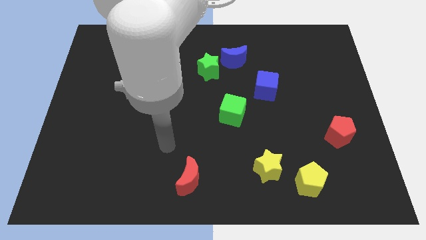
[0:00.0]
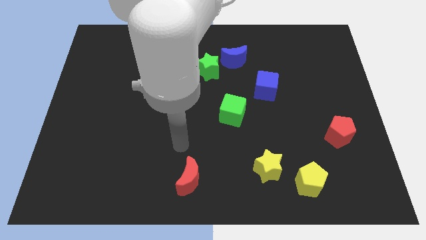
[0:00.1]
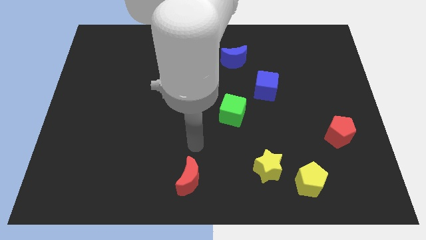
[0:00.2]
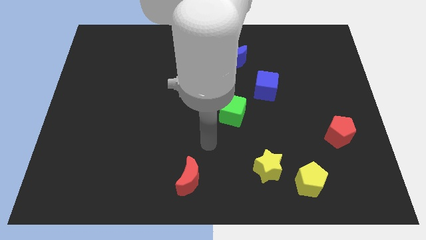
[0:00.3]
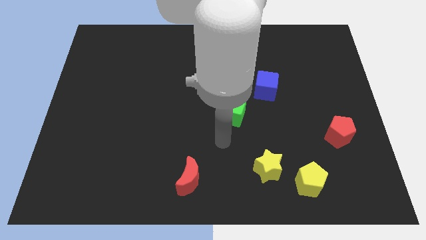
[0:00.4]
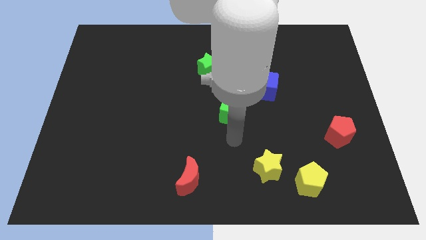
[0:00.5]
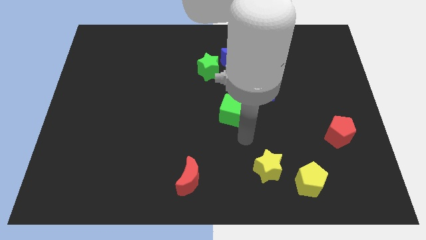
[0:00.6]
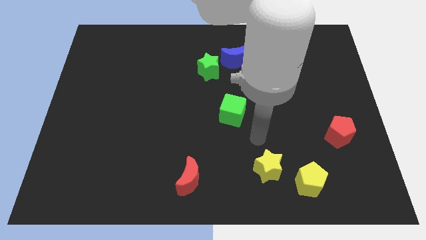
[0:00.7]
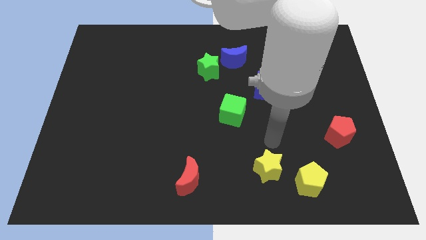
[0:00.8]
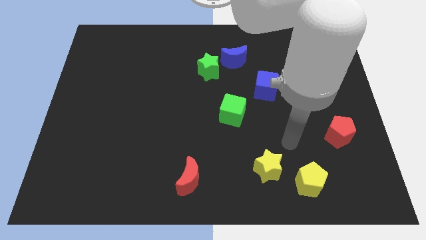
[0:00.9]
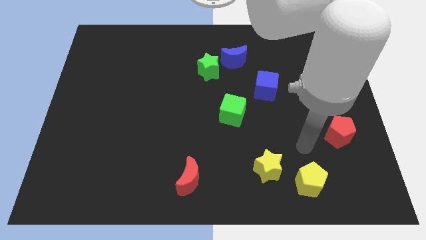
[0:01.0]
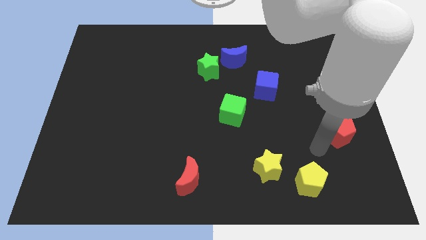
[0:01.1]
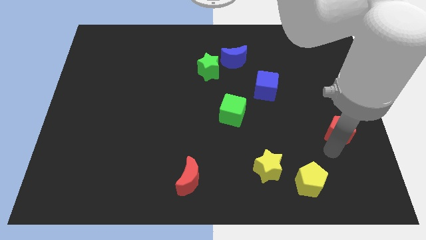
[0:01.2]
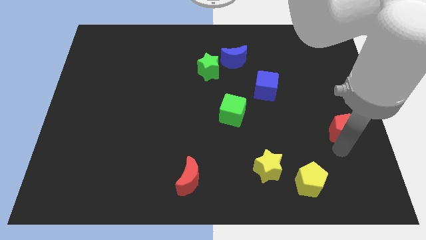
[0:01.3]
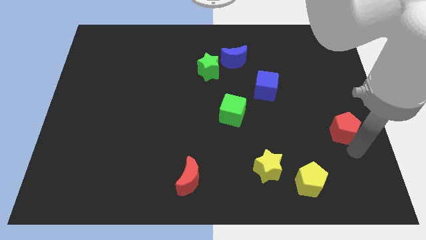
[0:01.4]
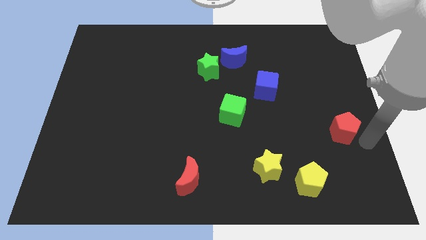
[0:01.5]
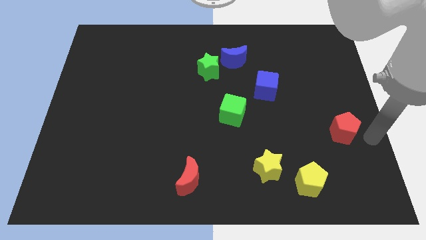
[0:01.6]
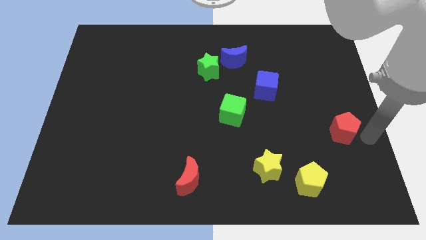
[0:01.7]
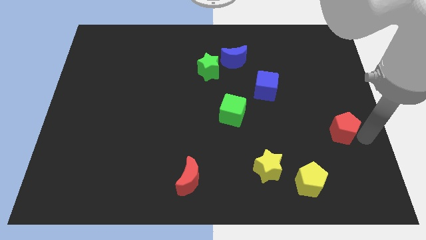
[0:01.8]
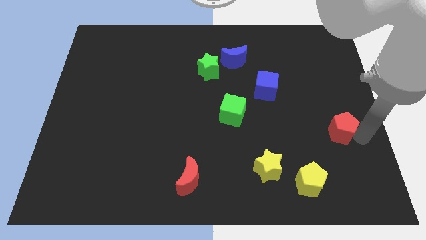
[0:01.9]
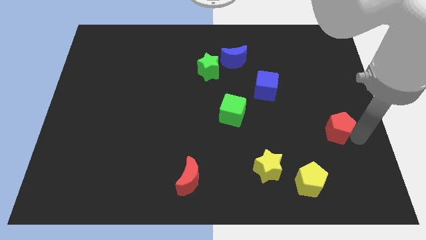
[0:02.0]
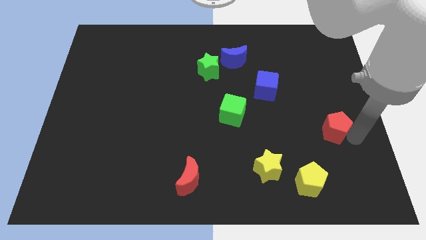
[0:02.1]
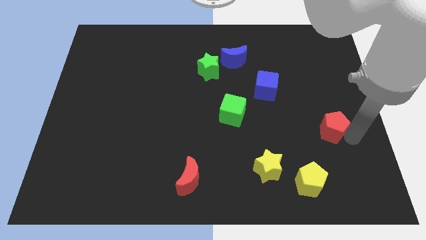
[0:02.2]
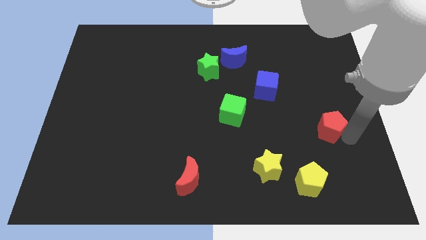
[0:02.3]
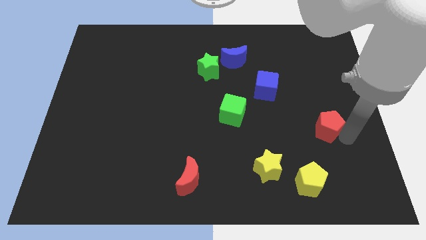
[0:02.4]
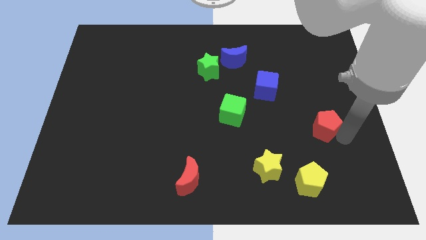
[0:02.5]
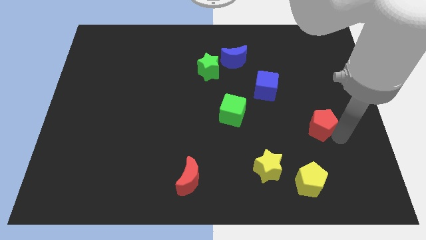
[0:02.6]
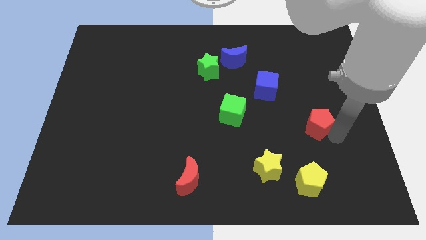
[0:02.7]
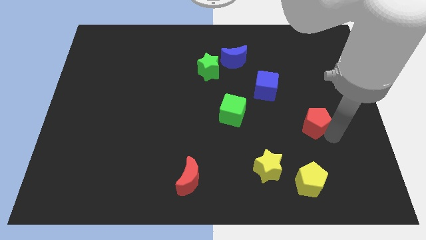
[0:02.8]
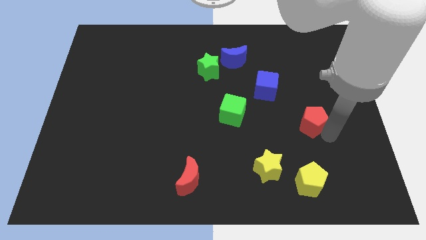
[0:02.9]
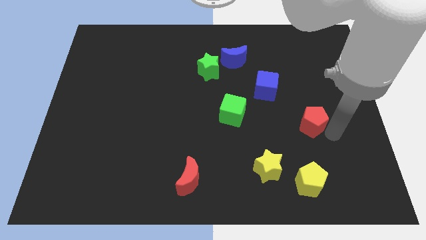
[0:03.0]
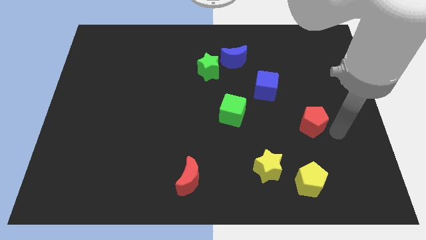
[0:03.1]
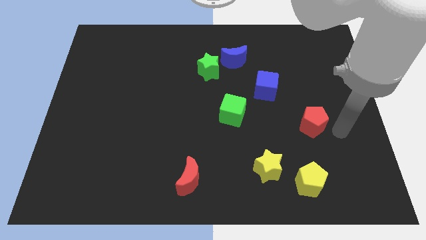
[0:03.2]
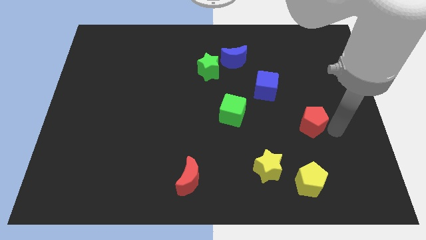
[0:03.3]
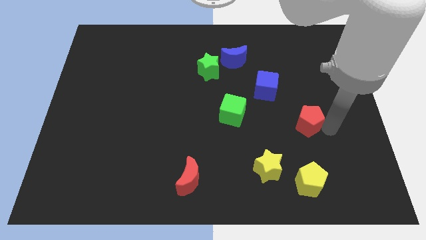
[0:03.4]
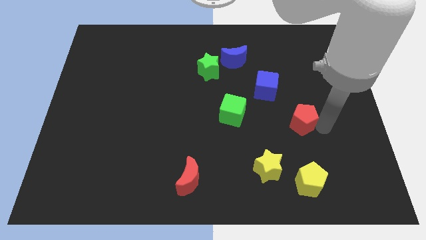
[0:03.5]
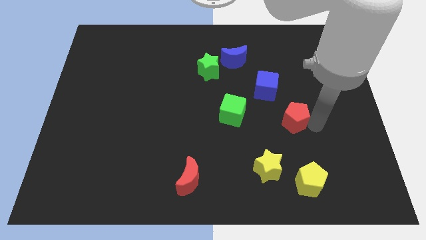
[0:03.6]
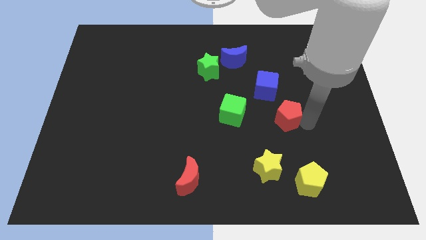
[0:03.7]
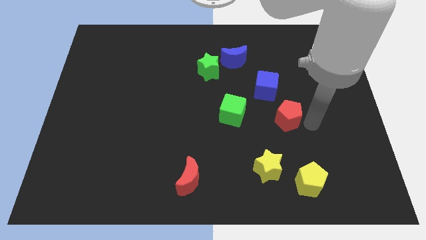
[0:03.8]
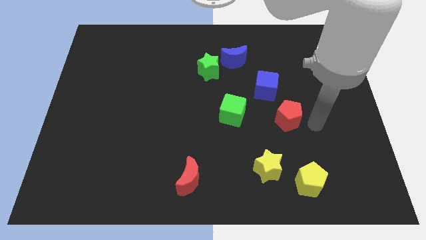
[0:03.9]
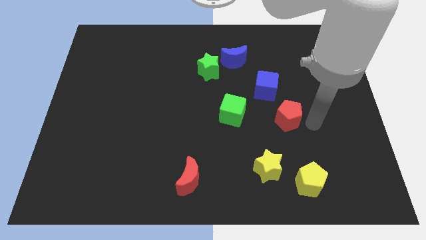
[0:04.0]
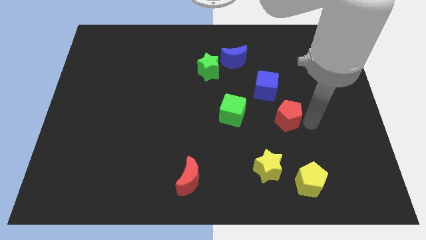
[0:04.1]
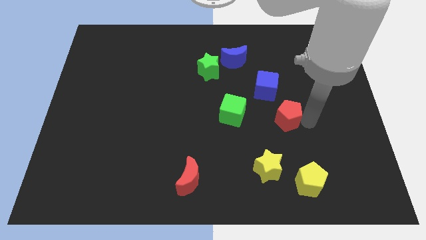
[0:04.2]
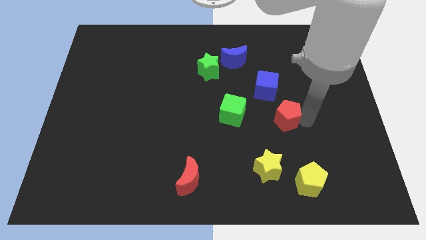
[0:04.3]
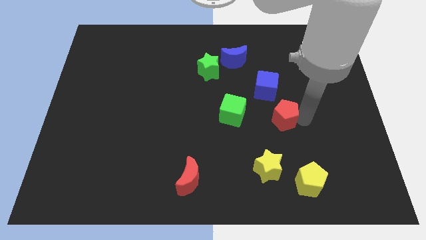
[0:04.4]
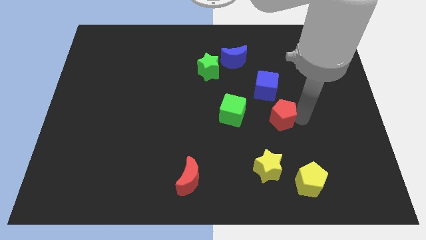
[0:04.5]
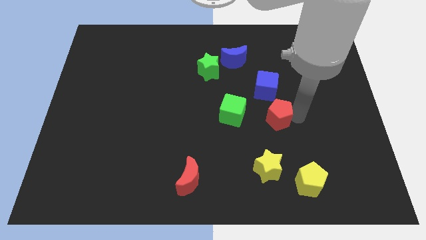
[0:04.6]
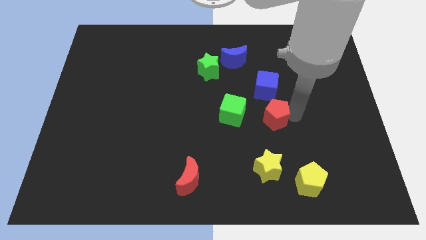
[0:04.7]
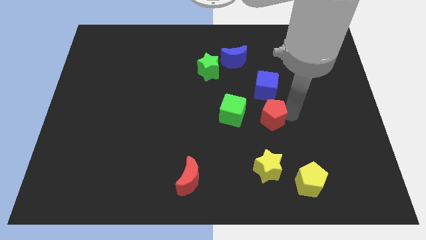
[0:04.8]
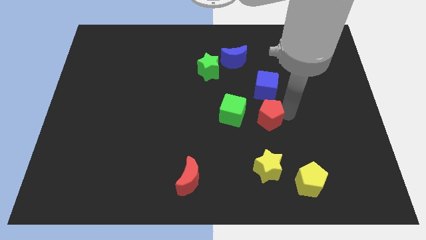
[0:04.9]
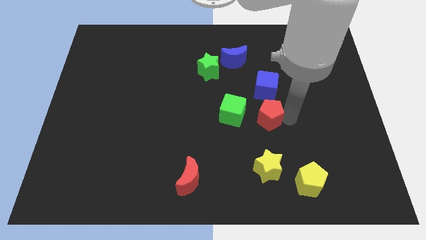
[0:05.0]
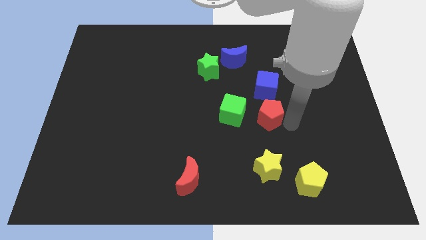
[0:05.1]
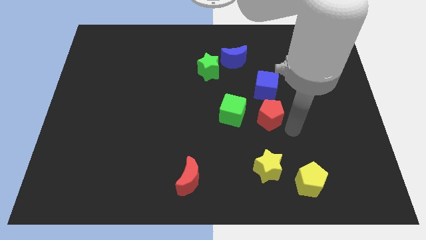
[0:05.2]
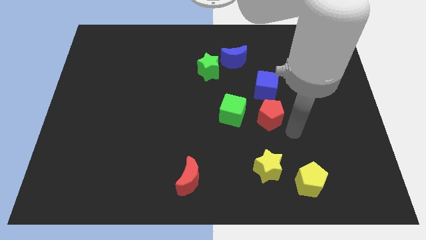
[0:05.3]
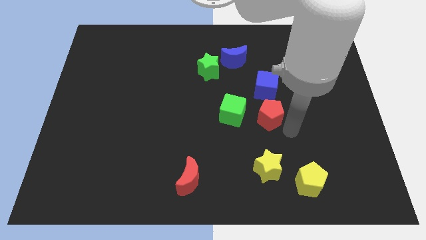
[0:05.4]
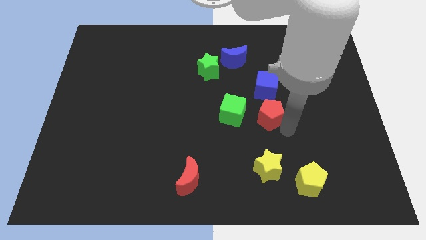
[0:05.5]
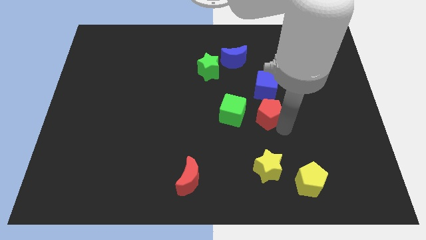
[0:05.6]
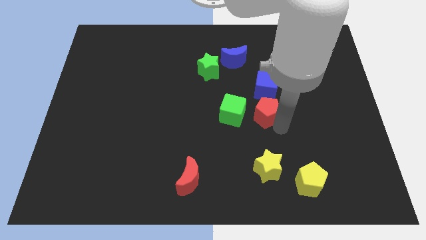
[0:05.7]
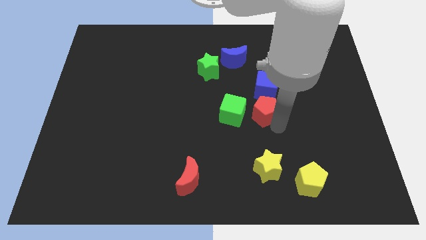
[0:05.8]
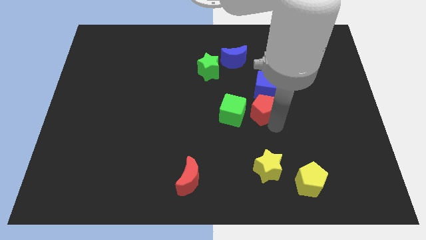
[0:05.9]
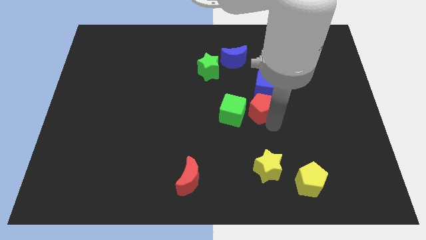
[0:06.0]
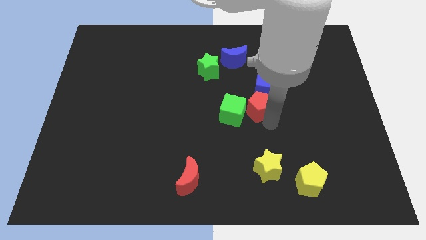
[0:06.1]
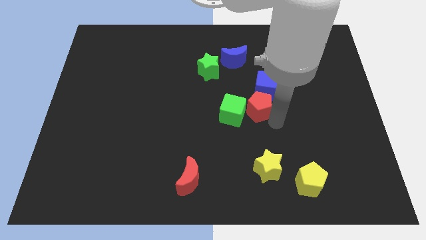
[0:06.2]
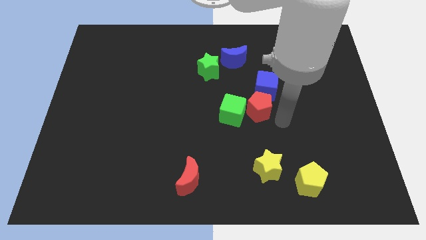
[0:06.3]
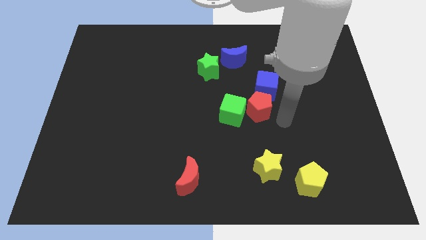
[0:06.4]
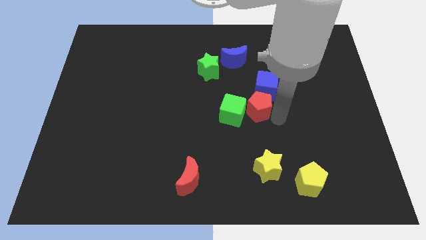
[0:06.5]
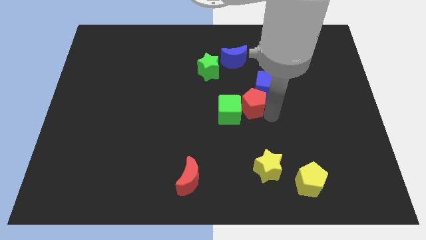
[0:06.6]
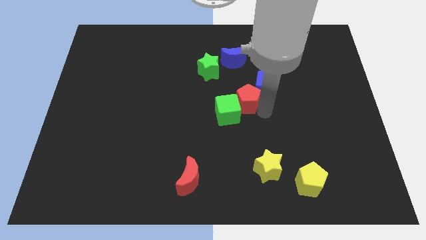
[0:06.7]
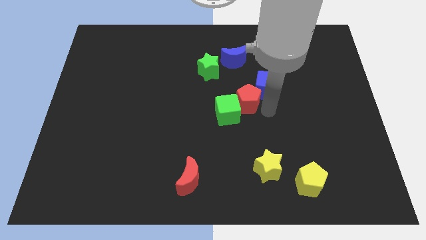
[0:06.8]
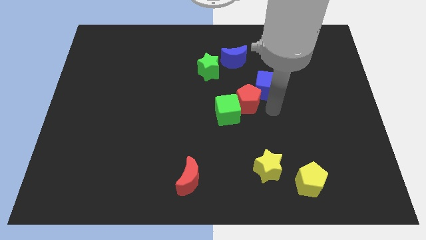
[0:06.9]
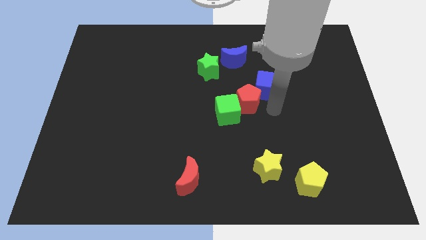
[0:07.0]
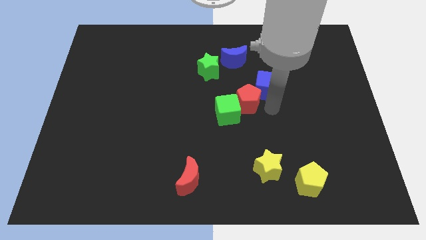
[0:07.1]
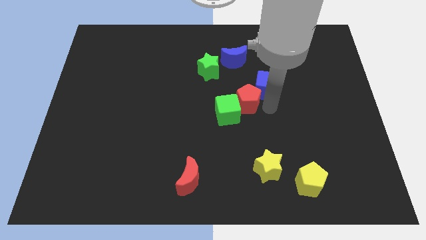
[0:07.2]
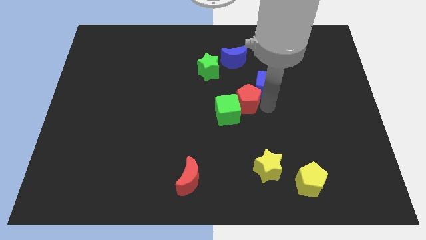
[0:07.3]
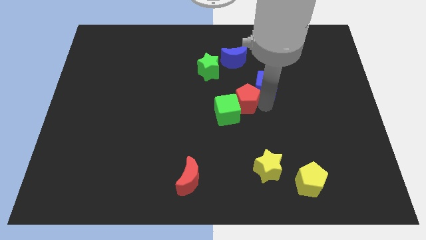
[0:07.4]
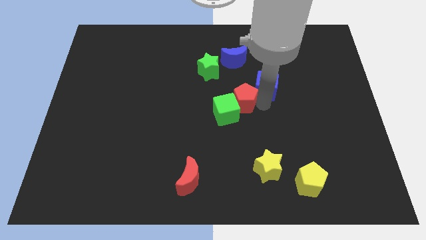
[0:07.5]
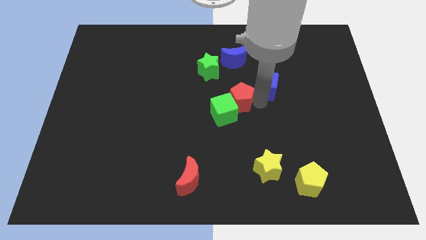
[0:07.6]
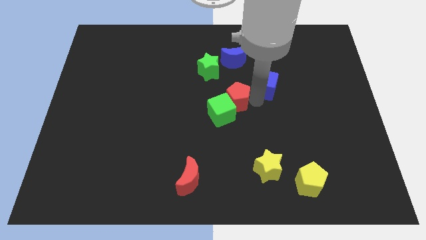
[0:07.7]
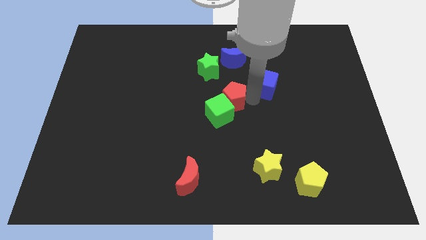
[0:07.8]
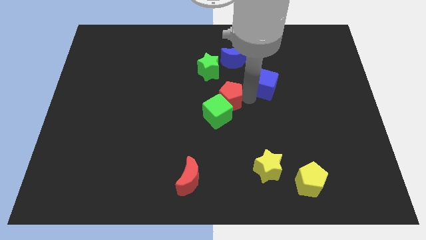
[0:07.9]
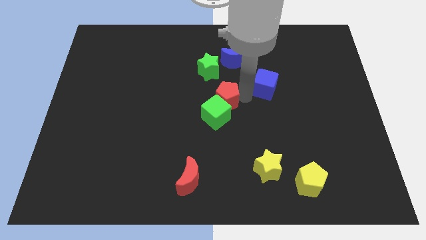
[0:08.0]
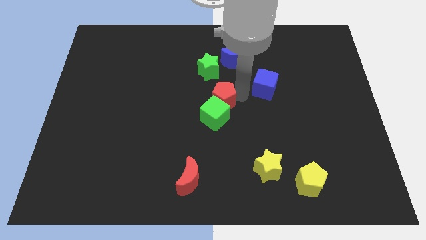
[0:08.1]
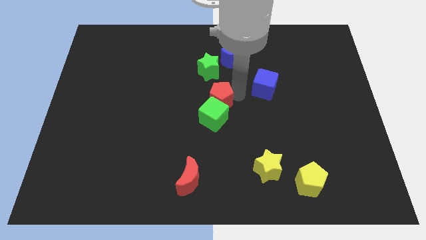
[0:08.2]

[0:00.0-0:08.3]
push the red pentagon diagonally up and to the left of the green cube
